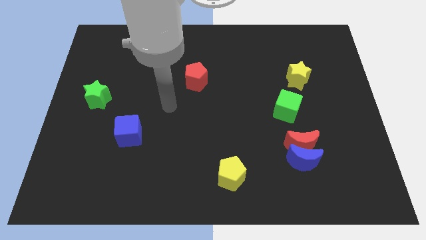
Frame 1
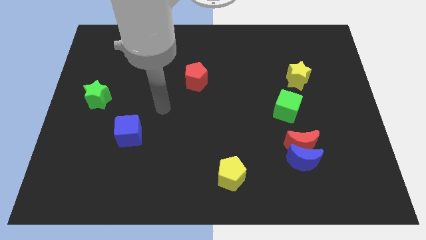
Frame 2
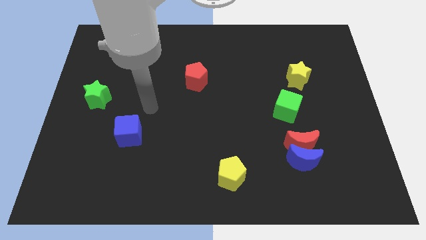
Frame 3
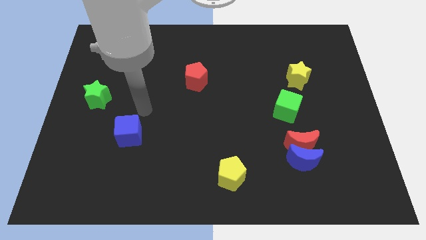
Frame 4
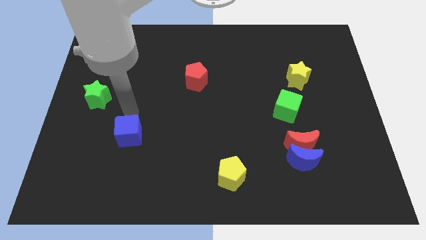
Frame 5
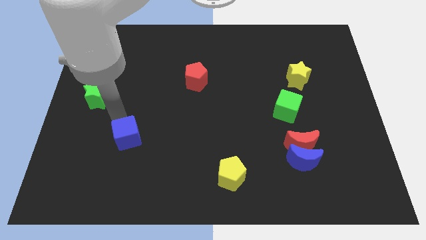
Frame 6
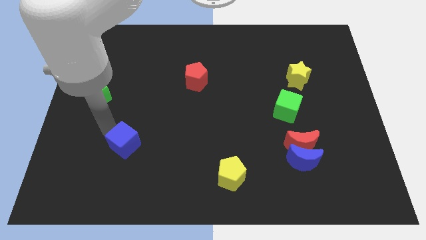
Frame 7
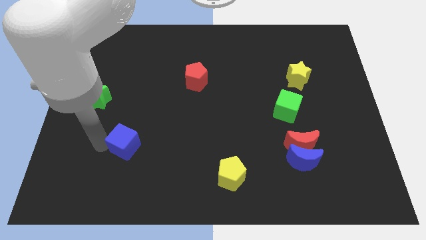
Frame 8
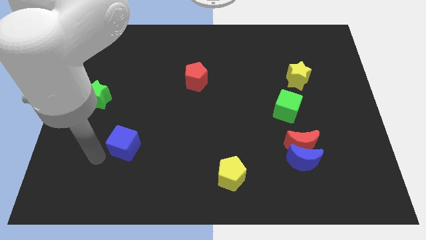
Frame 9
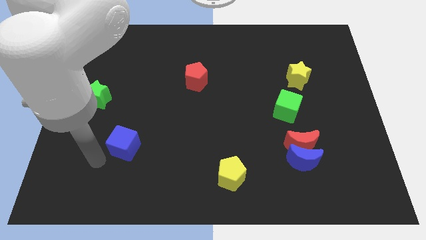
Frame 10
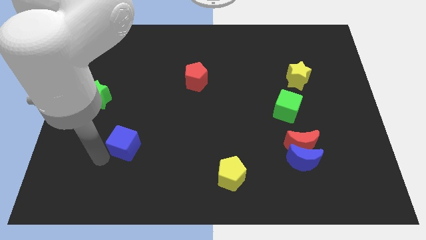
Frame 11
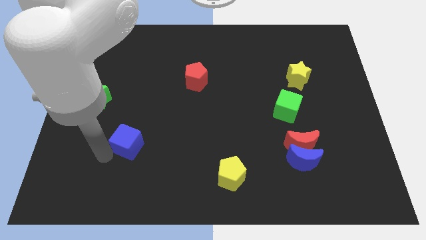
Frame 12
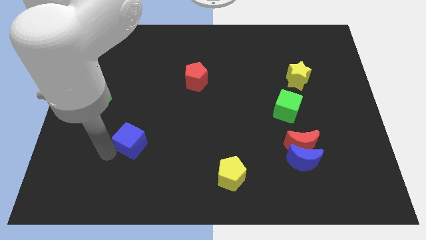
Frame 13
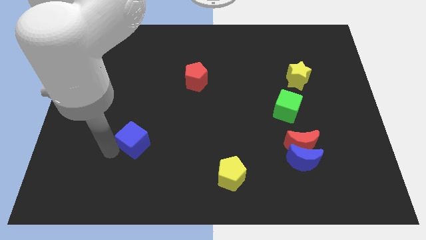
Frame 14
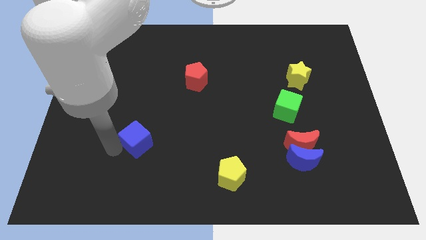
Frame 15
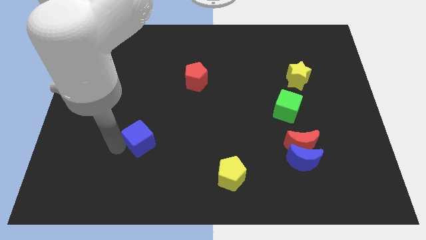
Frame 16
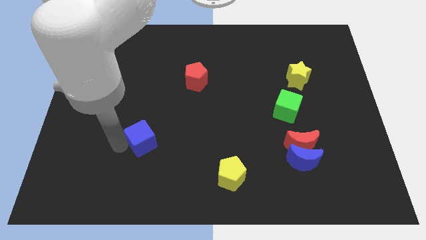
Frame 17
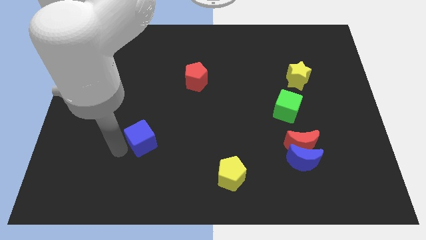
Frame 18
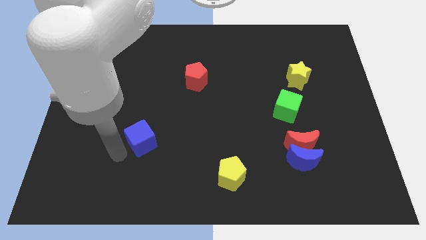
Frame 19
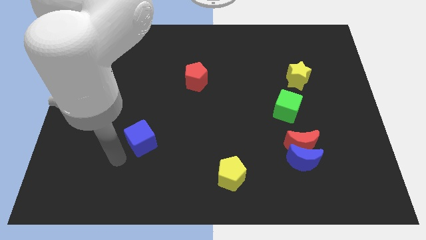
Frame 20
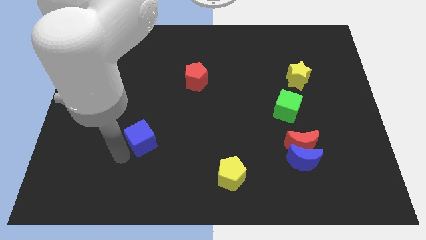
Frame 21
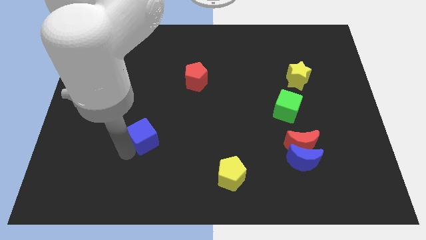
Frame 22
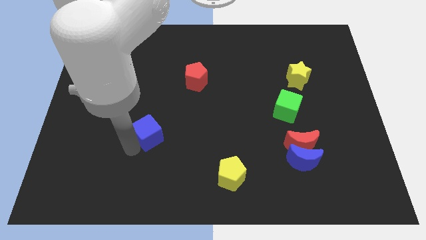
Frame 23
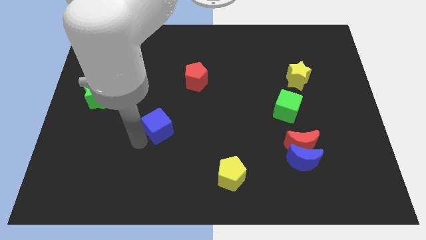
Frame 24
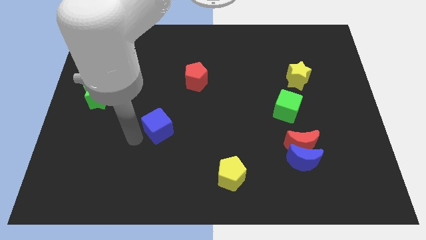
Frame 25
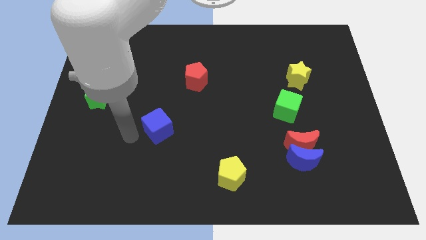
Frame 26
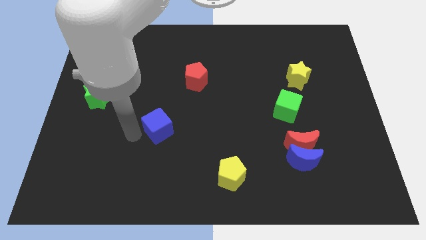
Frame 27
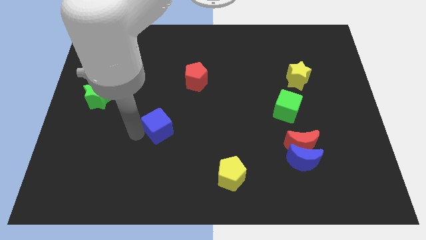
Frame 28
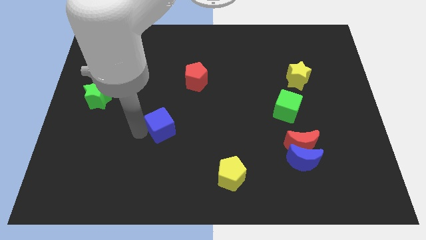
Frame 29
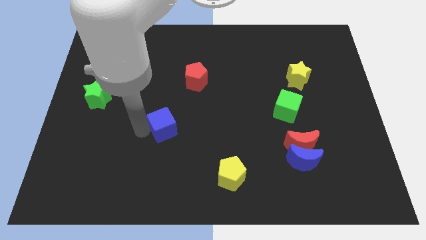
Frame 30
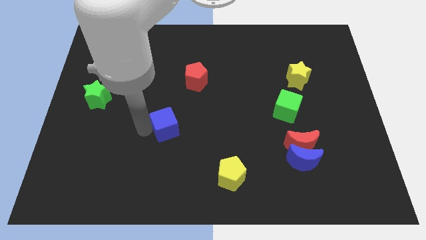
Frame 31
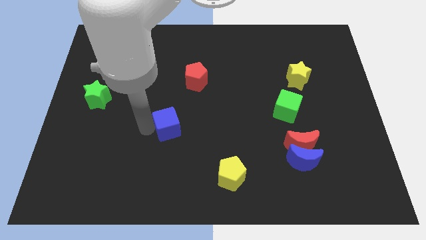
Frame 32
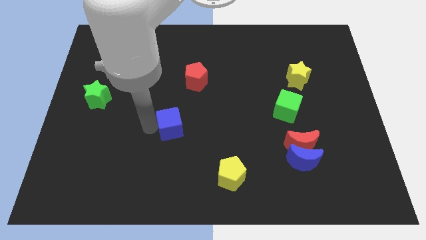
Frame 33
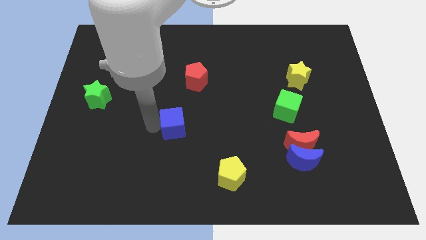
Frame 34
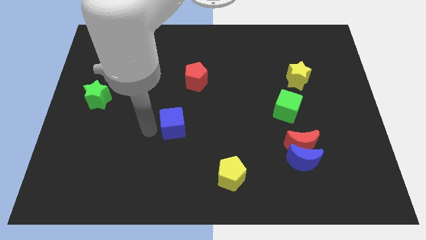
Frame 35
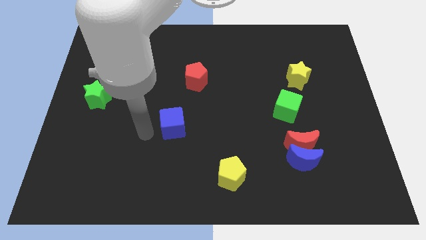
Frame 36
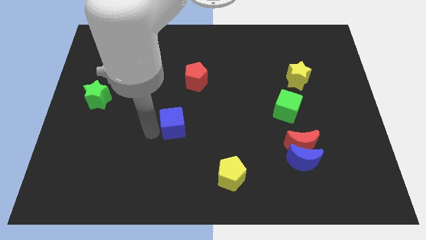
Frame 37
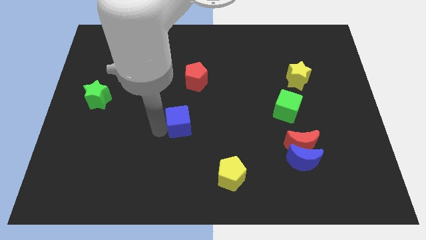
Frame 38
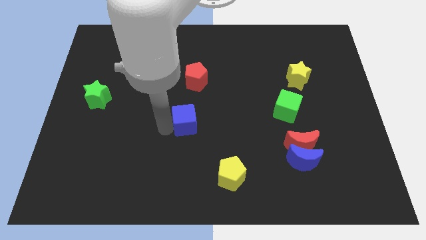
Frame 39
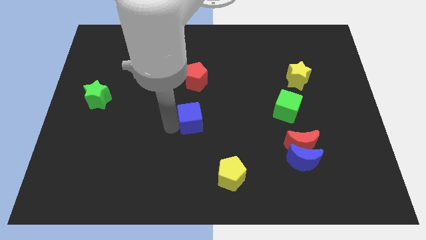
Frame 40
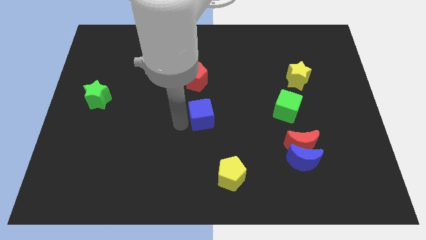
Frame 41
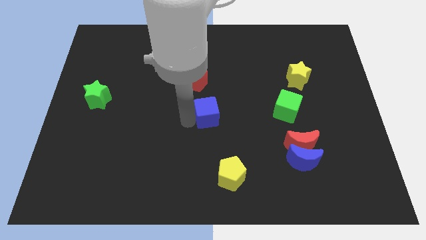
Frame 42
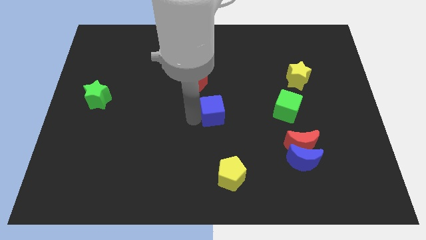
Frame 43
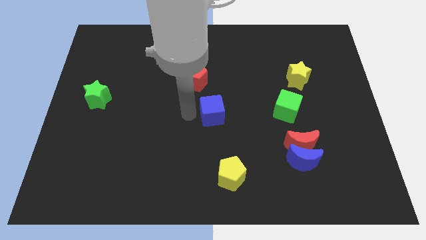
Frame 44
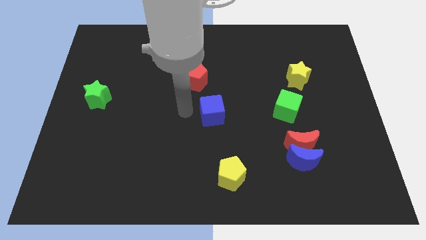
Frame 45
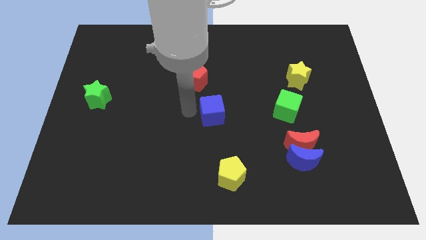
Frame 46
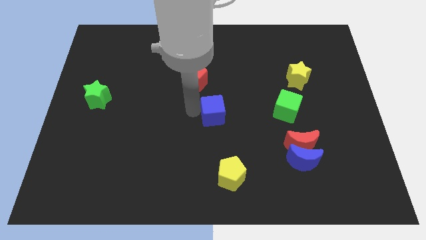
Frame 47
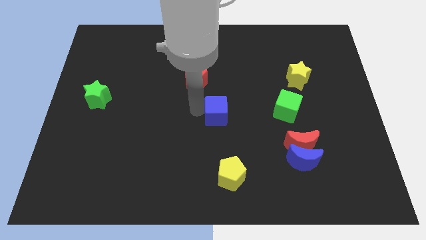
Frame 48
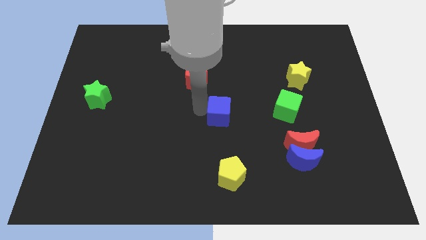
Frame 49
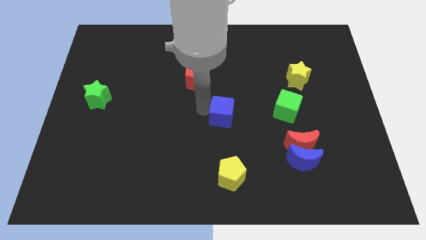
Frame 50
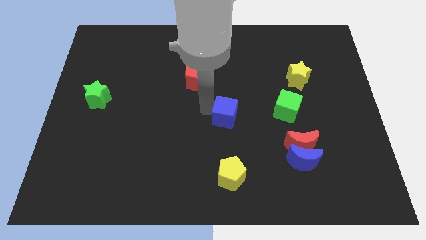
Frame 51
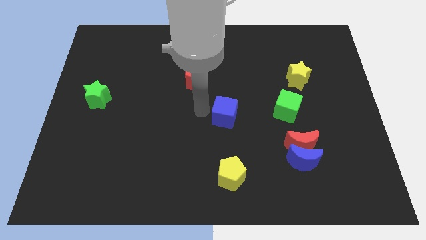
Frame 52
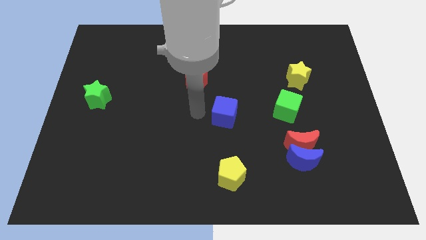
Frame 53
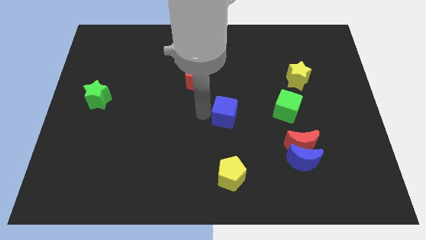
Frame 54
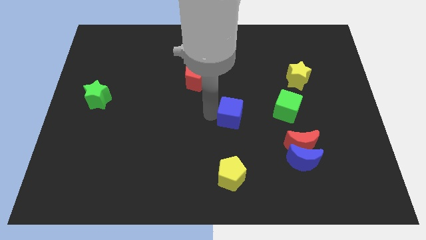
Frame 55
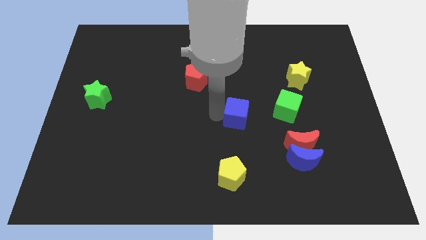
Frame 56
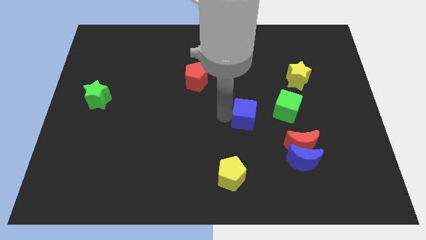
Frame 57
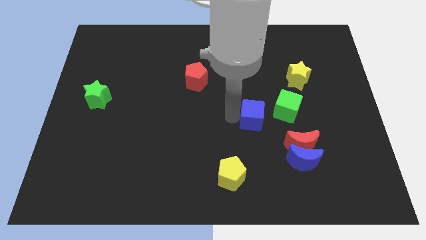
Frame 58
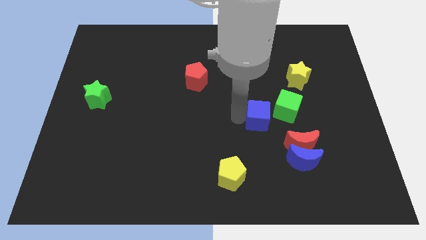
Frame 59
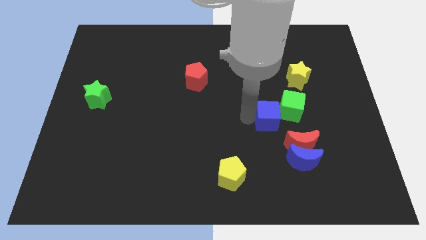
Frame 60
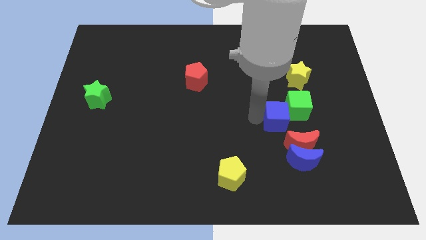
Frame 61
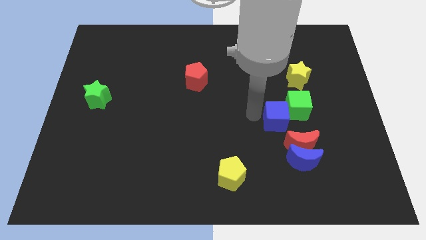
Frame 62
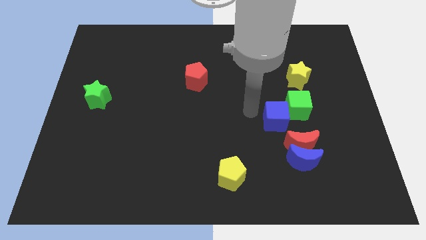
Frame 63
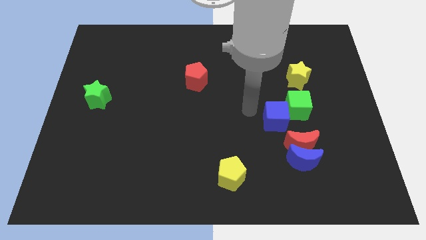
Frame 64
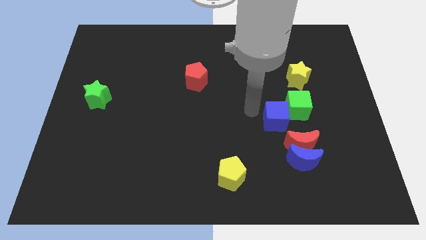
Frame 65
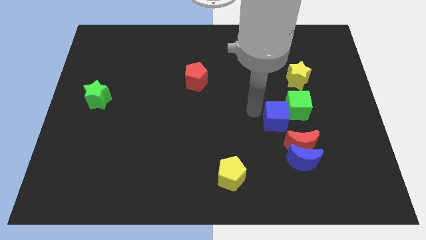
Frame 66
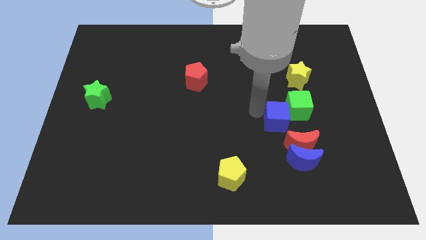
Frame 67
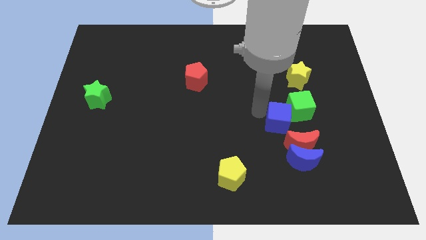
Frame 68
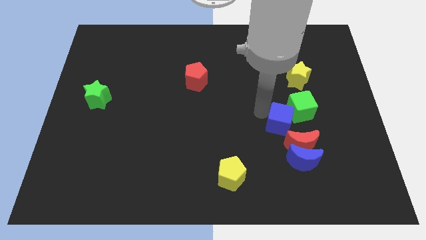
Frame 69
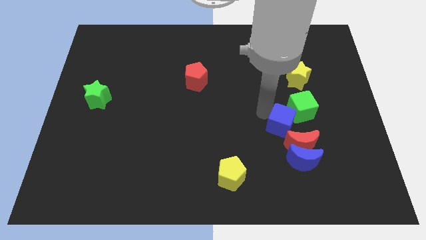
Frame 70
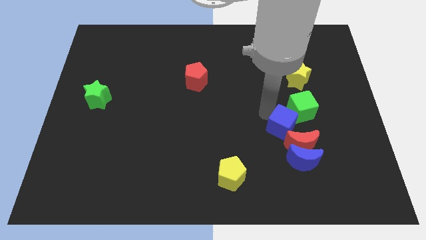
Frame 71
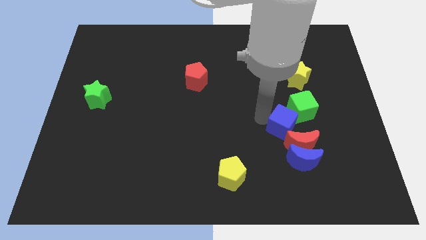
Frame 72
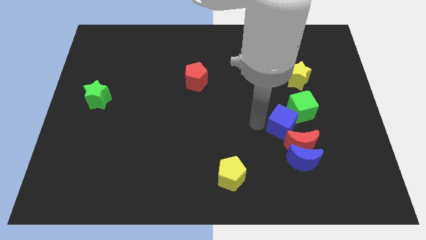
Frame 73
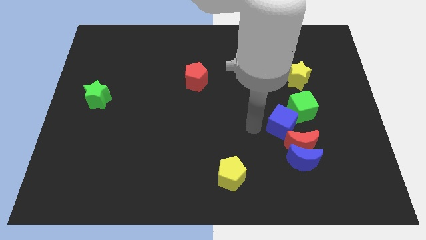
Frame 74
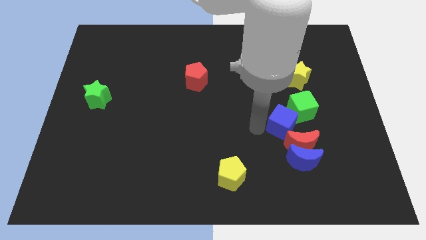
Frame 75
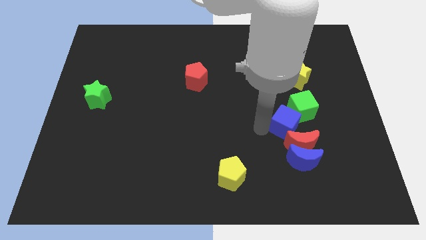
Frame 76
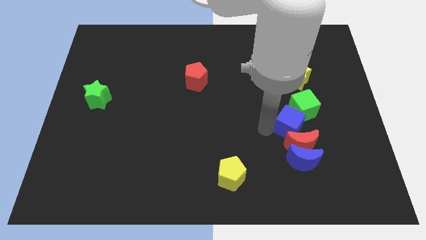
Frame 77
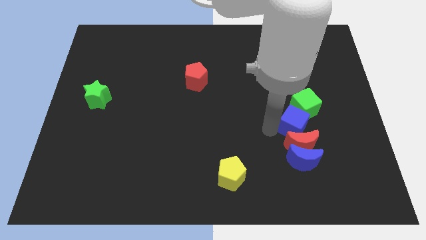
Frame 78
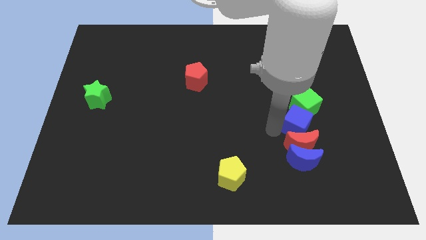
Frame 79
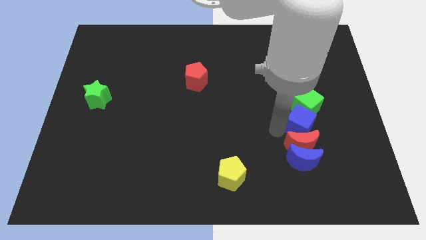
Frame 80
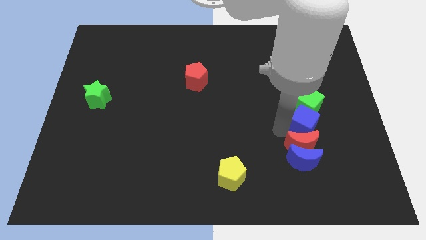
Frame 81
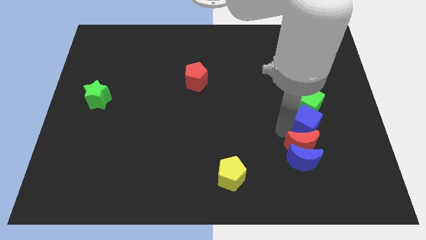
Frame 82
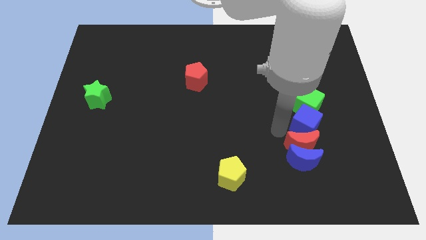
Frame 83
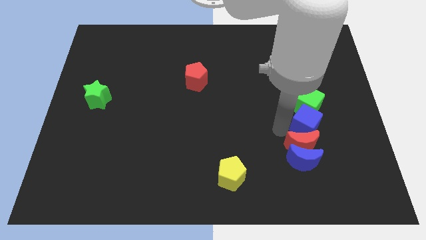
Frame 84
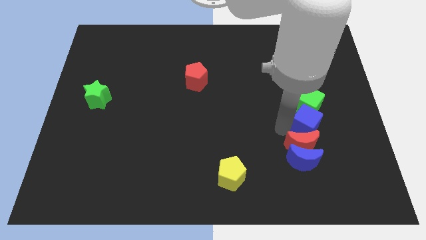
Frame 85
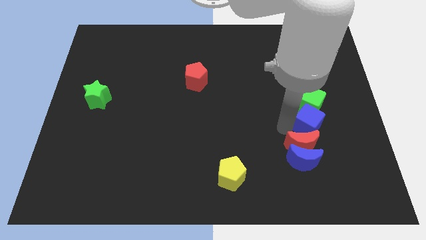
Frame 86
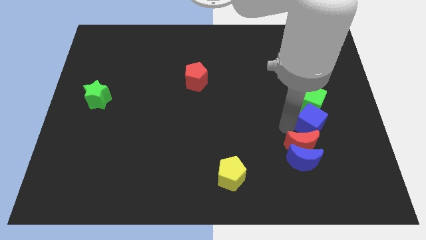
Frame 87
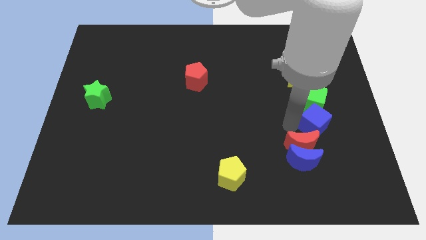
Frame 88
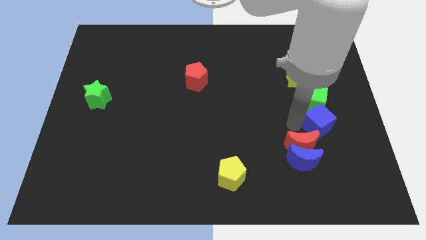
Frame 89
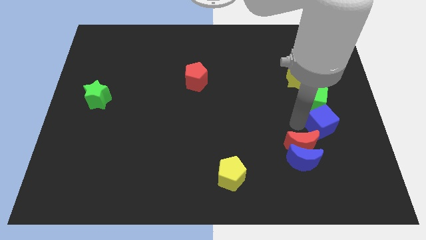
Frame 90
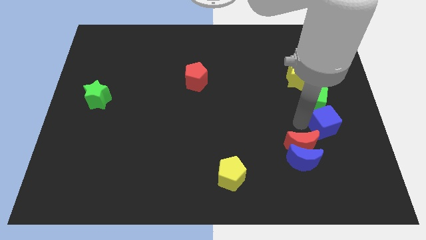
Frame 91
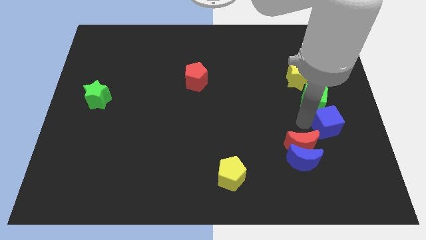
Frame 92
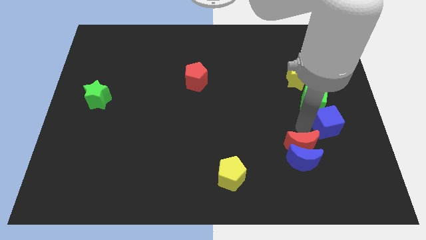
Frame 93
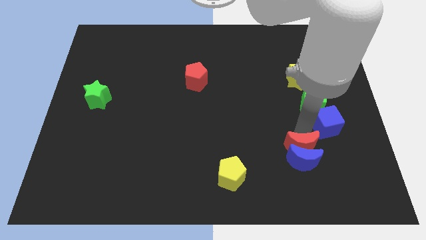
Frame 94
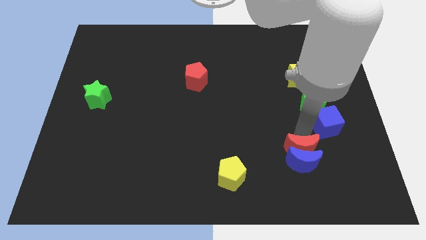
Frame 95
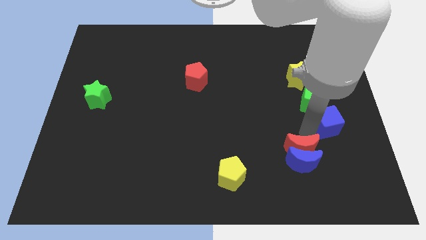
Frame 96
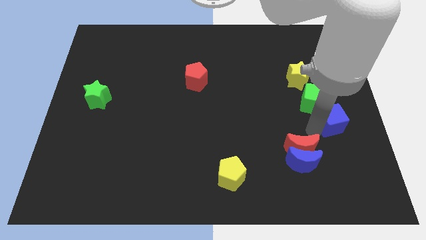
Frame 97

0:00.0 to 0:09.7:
push the blue cube to the right side
